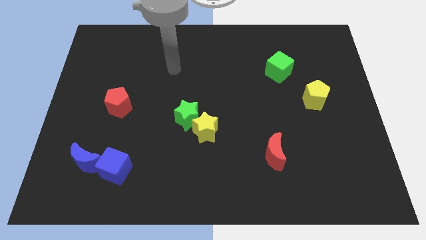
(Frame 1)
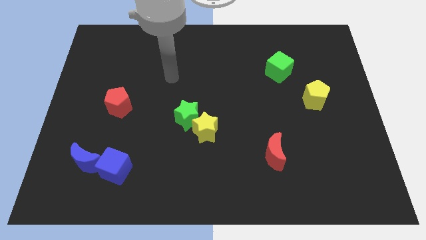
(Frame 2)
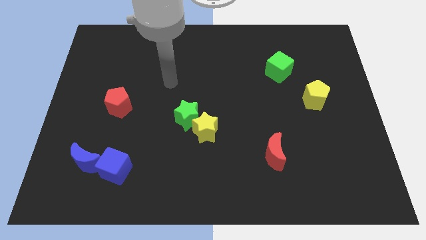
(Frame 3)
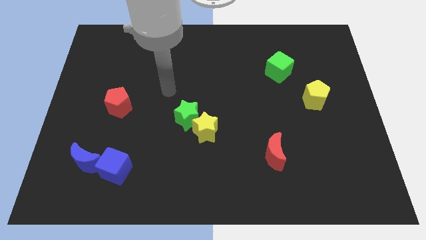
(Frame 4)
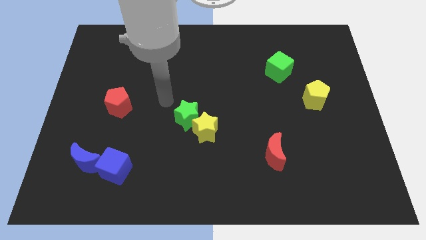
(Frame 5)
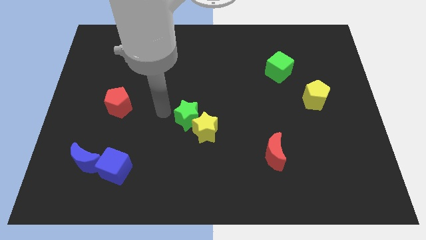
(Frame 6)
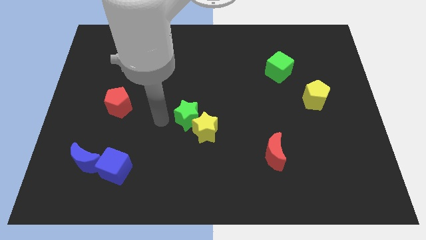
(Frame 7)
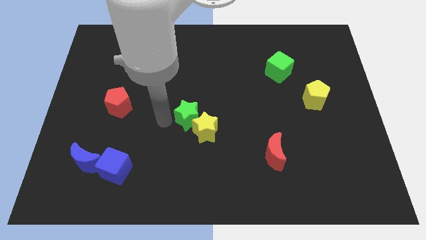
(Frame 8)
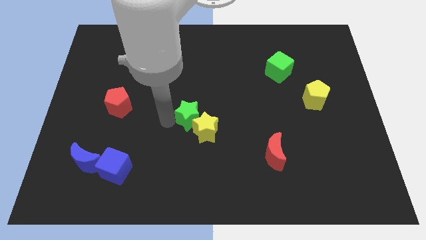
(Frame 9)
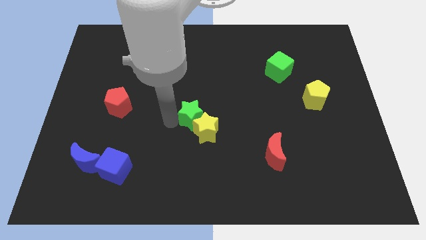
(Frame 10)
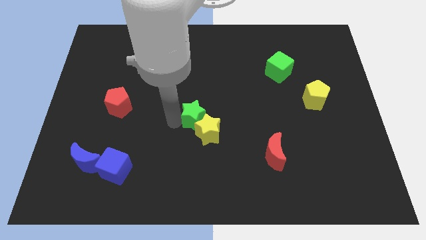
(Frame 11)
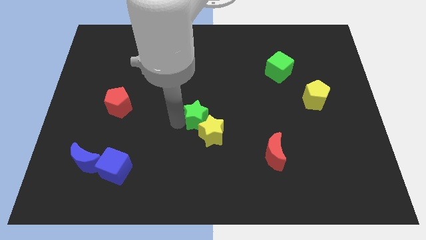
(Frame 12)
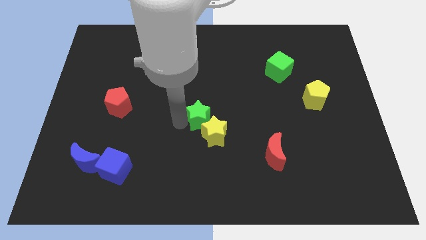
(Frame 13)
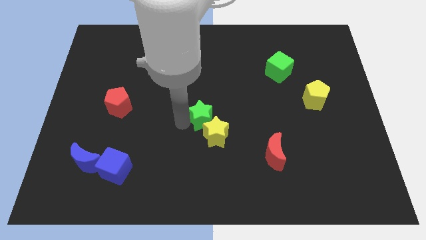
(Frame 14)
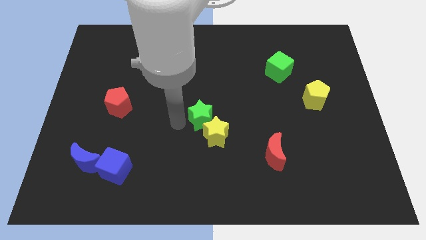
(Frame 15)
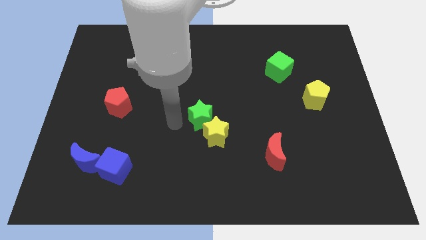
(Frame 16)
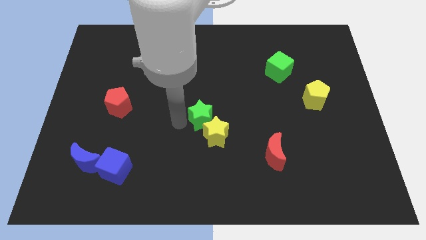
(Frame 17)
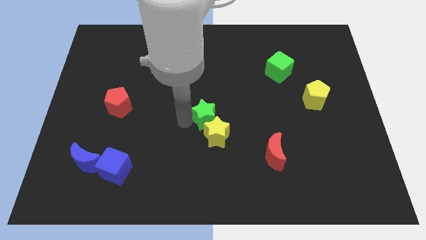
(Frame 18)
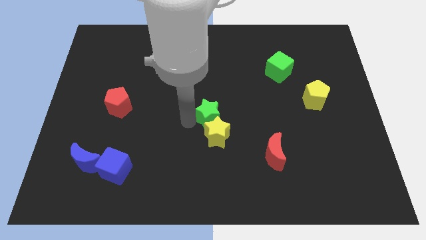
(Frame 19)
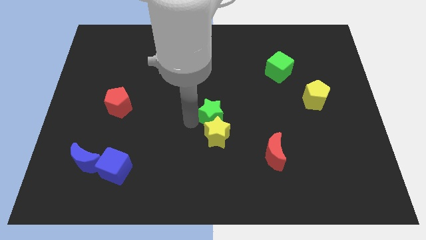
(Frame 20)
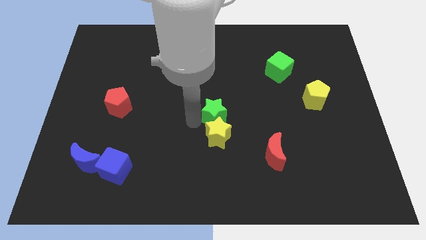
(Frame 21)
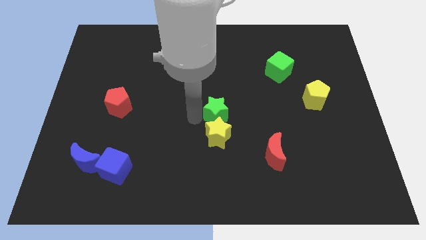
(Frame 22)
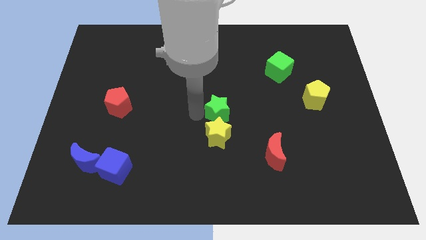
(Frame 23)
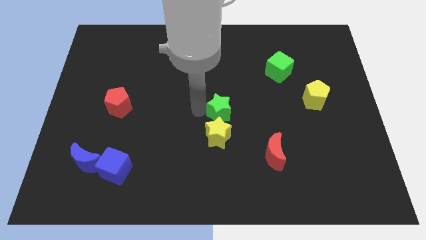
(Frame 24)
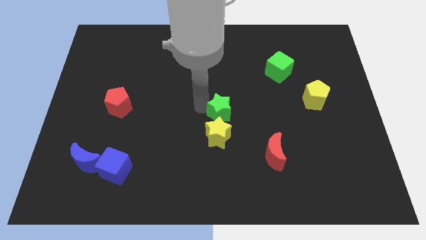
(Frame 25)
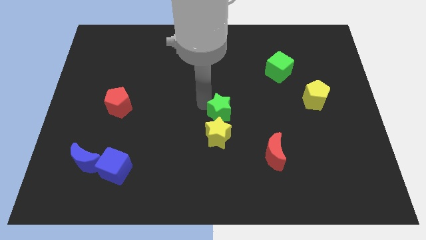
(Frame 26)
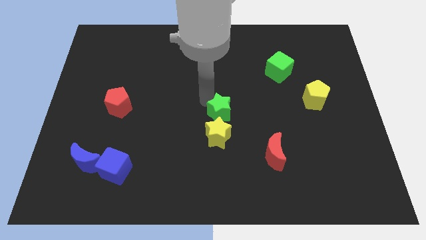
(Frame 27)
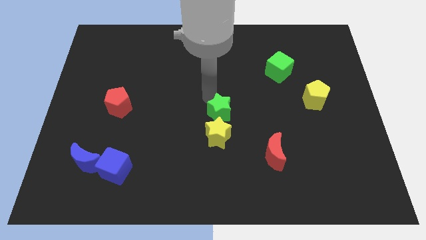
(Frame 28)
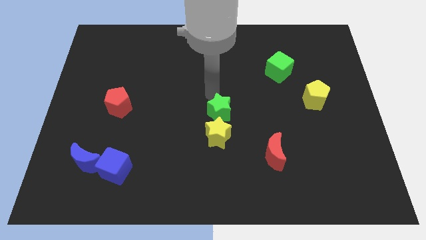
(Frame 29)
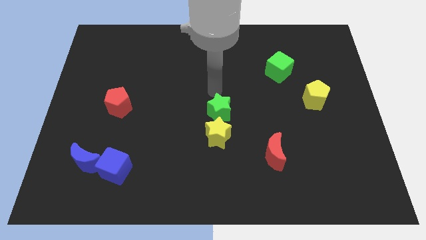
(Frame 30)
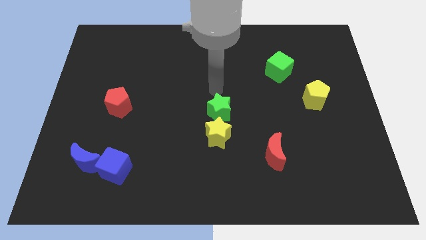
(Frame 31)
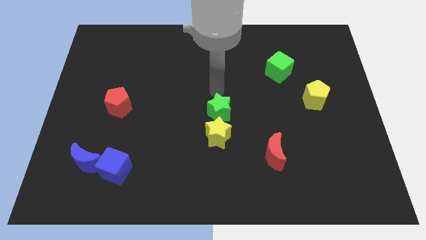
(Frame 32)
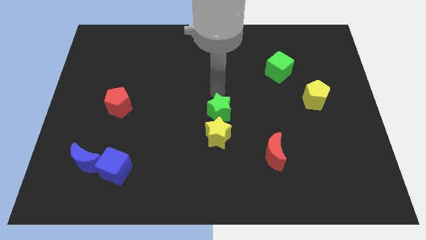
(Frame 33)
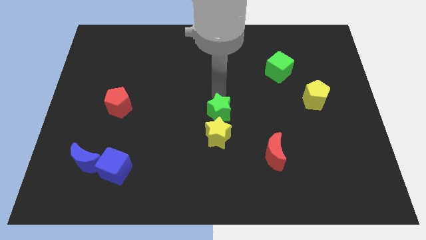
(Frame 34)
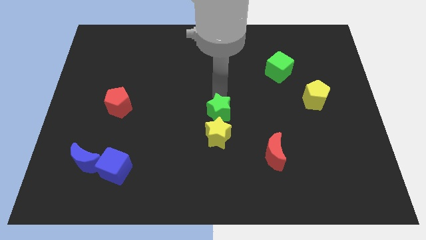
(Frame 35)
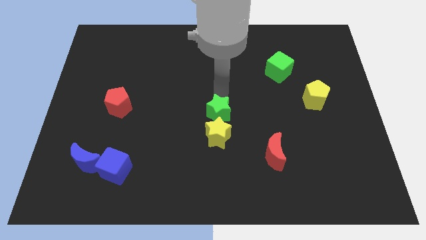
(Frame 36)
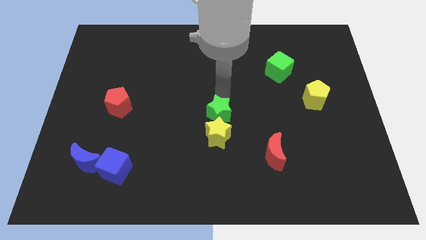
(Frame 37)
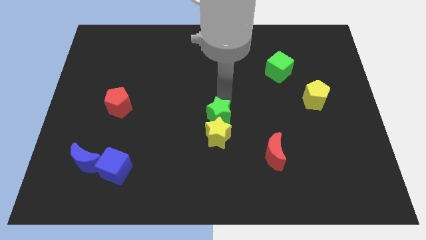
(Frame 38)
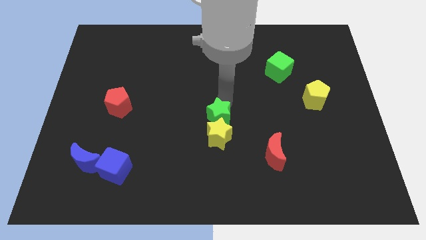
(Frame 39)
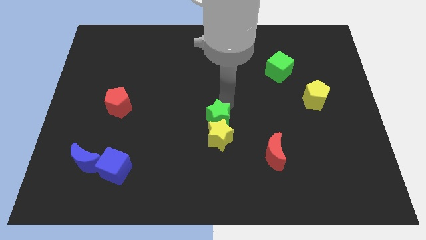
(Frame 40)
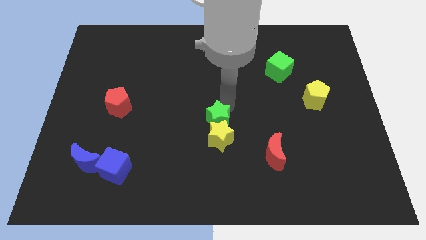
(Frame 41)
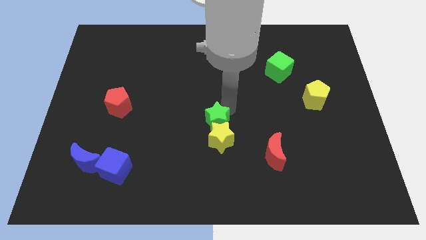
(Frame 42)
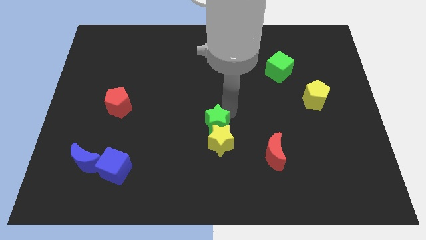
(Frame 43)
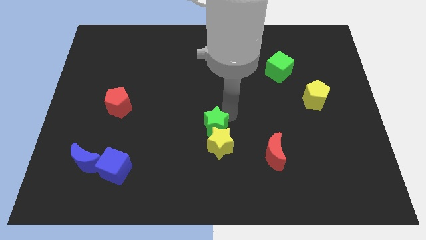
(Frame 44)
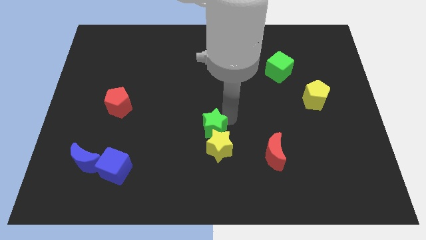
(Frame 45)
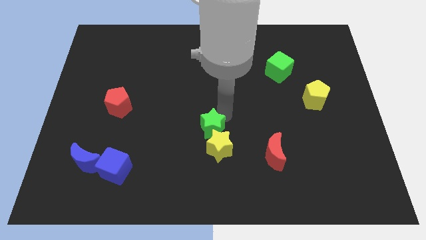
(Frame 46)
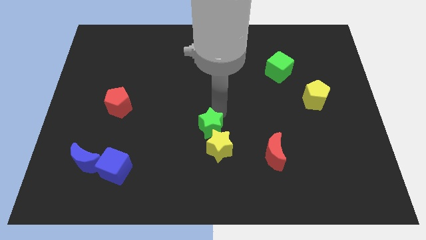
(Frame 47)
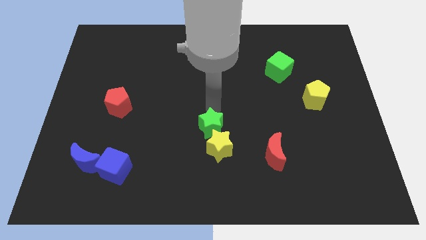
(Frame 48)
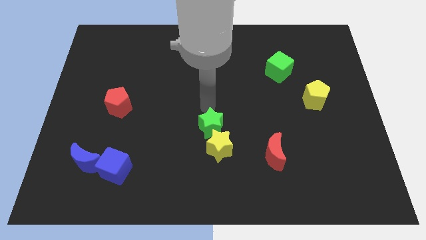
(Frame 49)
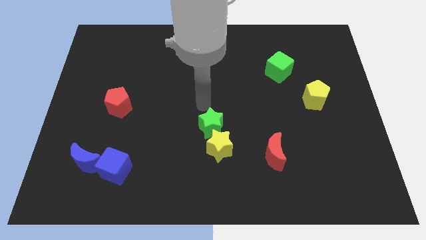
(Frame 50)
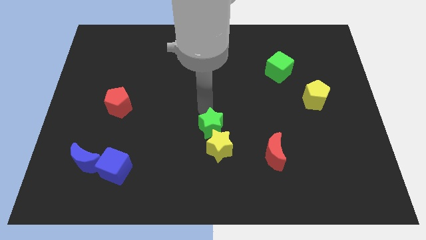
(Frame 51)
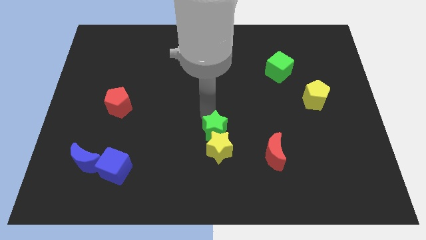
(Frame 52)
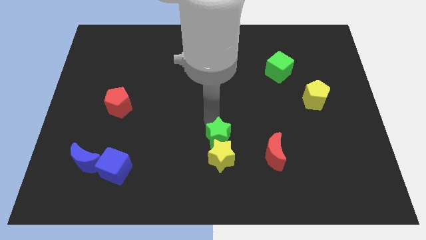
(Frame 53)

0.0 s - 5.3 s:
move the green star left of the red moon

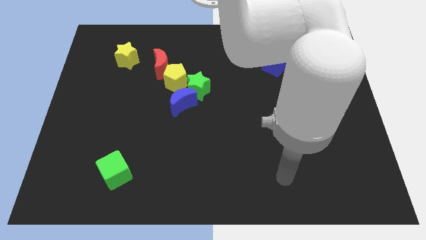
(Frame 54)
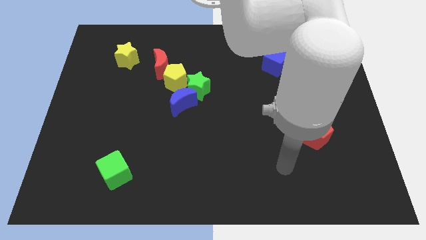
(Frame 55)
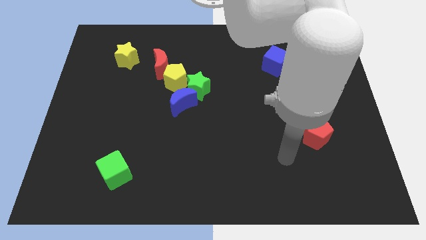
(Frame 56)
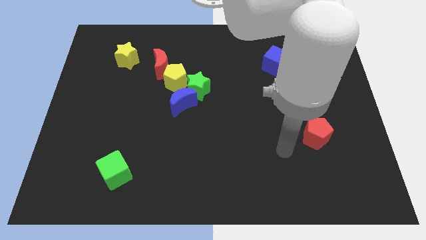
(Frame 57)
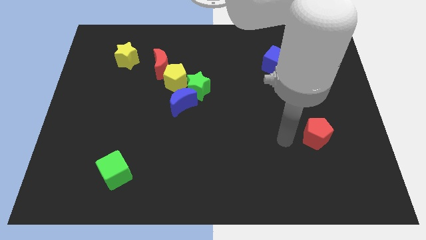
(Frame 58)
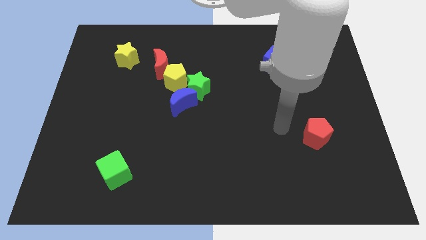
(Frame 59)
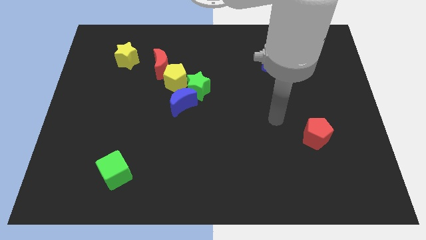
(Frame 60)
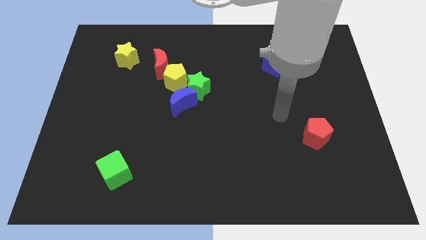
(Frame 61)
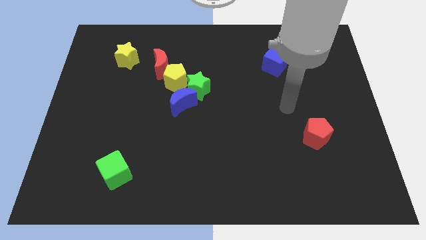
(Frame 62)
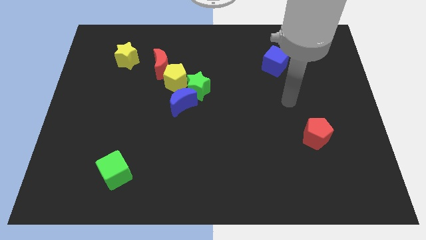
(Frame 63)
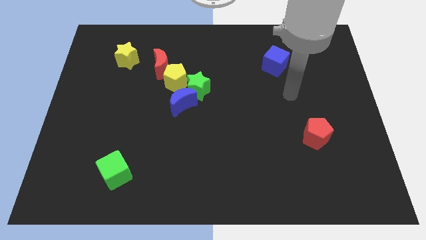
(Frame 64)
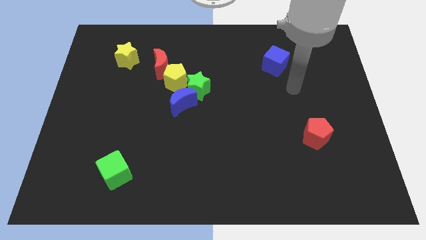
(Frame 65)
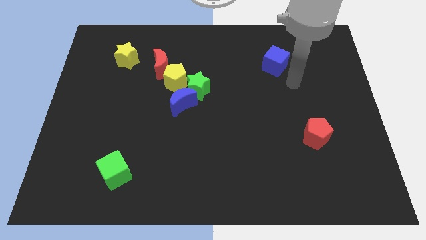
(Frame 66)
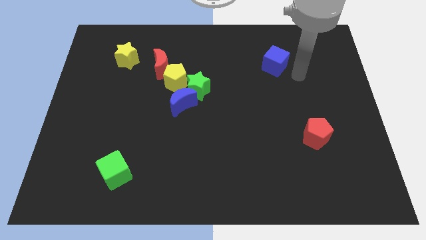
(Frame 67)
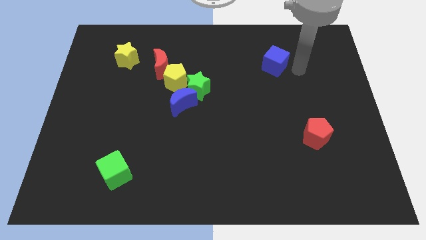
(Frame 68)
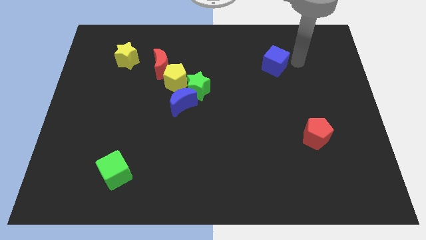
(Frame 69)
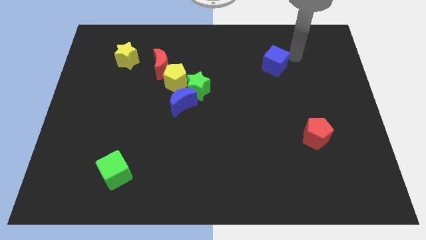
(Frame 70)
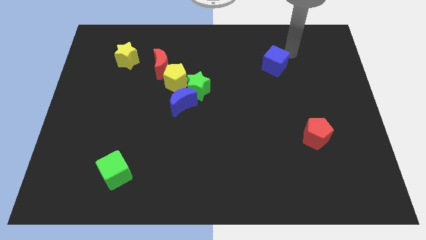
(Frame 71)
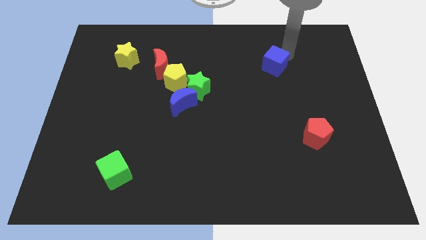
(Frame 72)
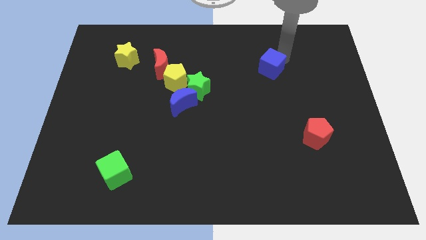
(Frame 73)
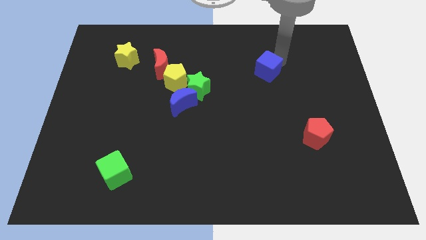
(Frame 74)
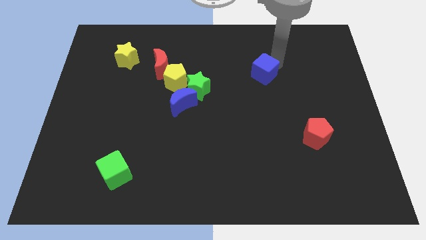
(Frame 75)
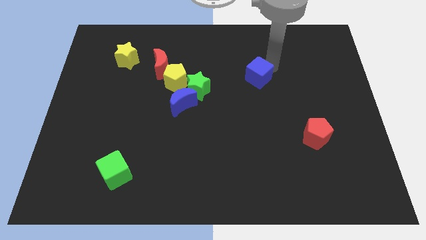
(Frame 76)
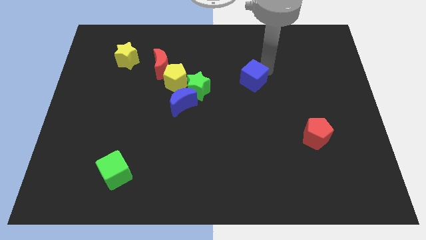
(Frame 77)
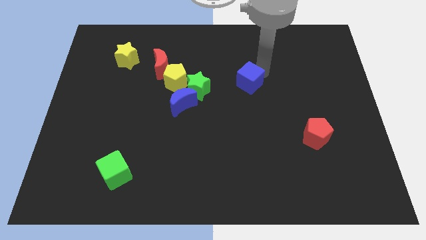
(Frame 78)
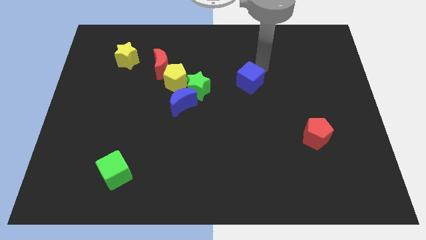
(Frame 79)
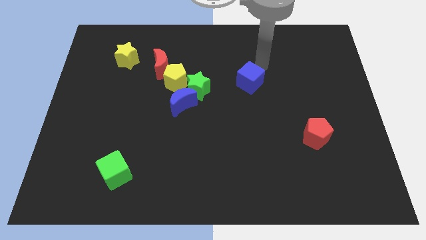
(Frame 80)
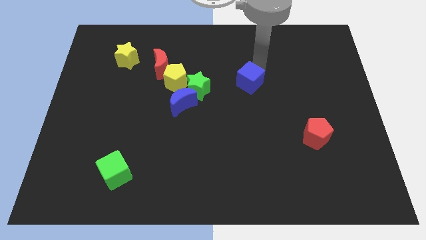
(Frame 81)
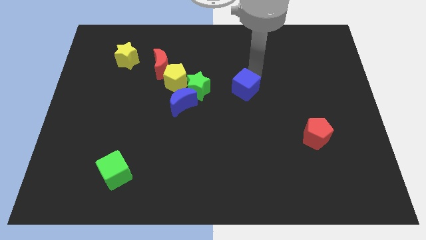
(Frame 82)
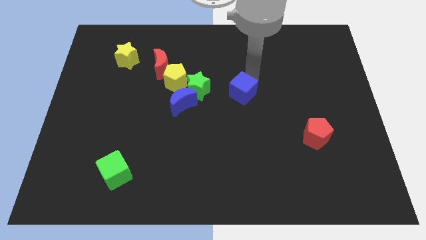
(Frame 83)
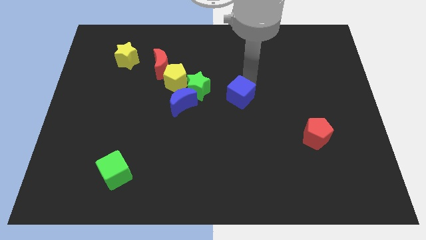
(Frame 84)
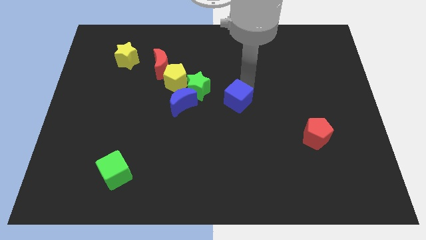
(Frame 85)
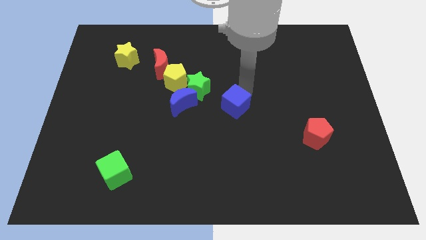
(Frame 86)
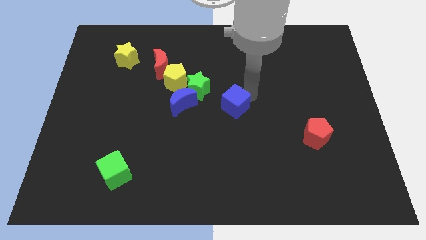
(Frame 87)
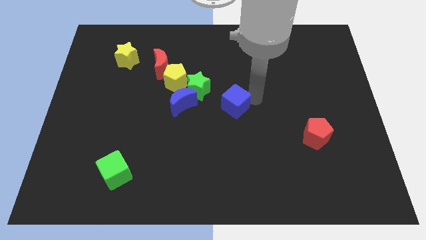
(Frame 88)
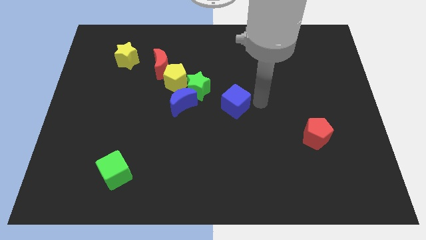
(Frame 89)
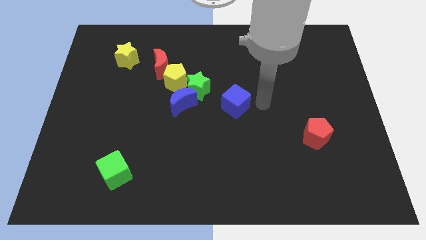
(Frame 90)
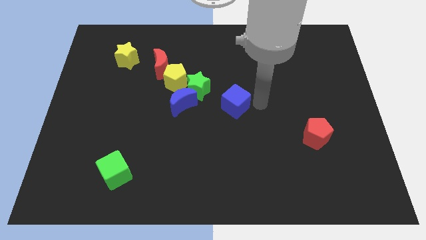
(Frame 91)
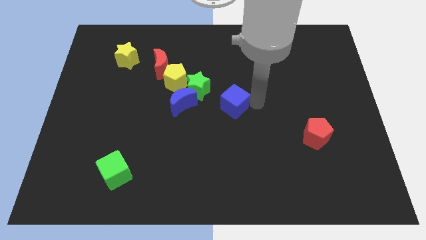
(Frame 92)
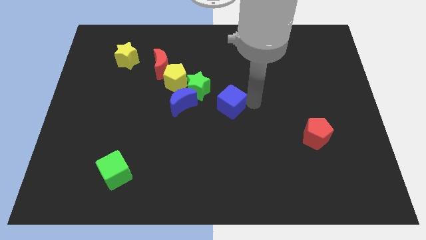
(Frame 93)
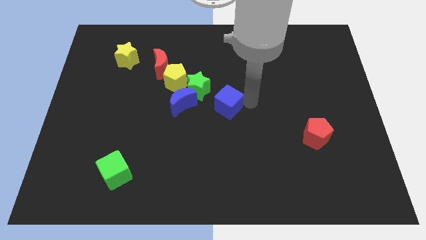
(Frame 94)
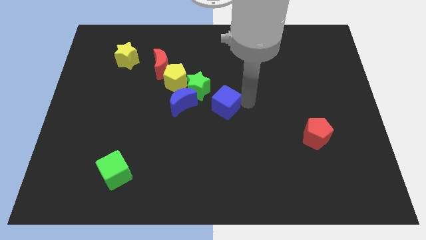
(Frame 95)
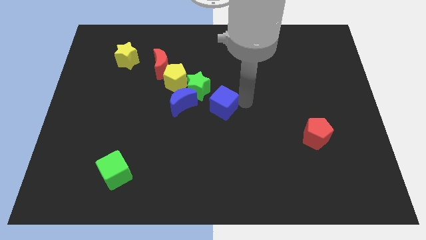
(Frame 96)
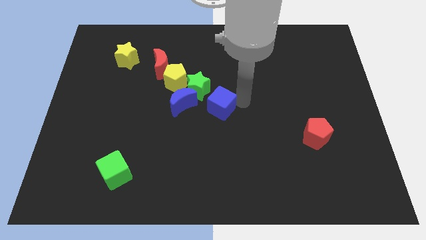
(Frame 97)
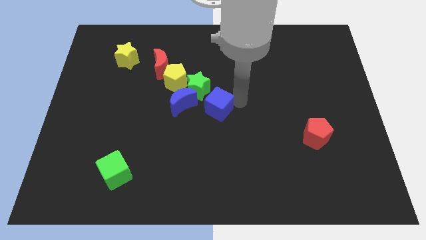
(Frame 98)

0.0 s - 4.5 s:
slide the blue cube to the bottom side of the green star
